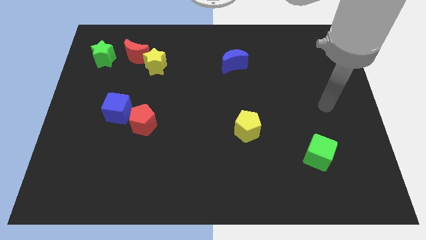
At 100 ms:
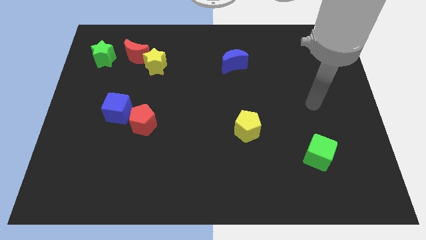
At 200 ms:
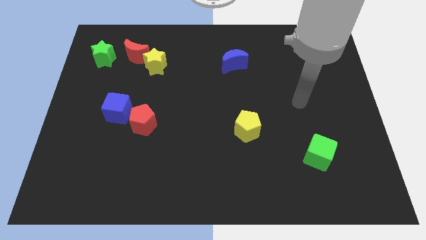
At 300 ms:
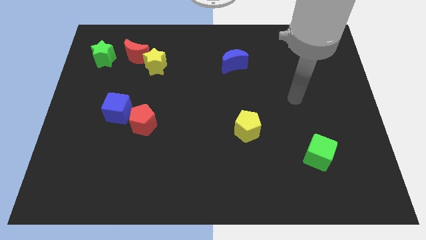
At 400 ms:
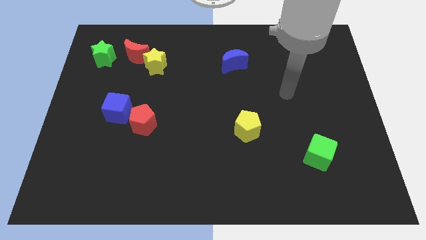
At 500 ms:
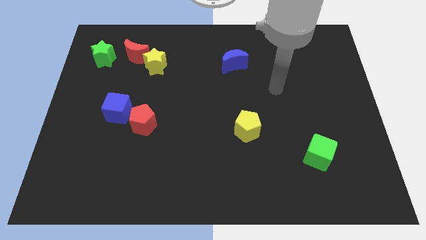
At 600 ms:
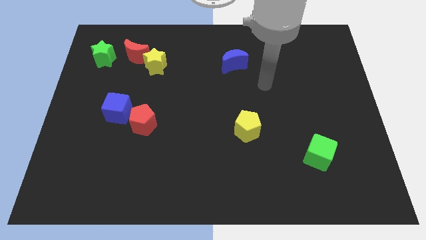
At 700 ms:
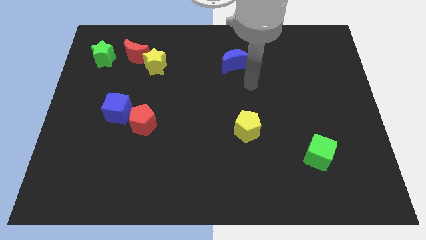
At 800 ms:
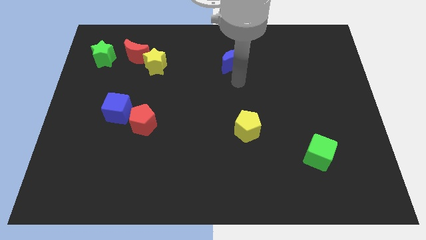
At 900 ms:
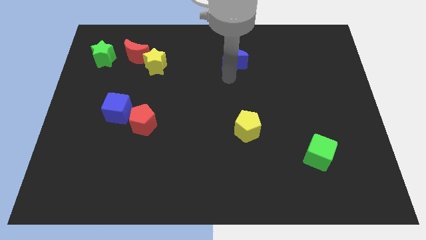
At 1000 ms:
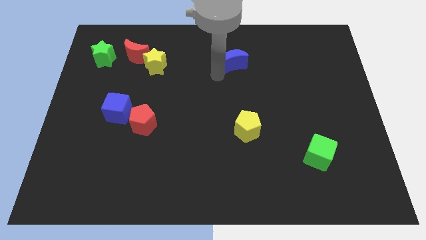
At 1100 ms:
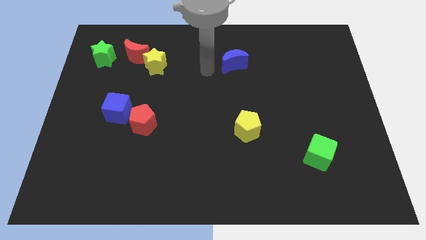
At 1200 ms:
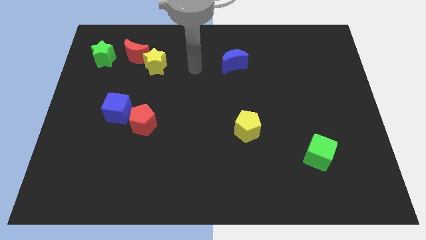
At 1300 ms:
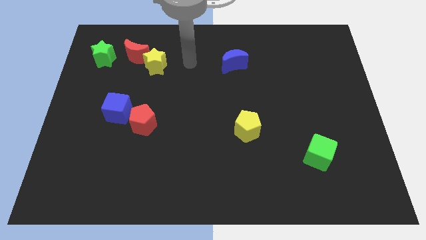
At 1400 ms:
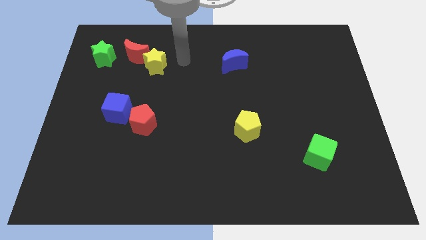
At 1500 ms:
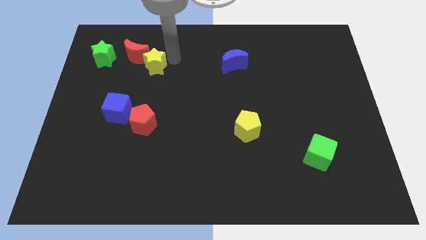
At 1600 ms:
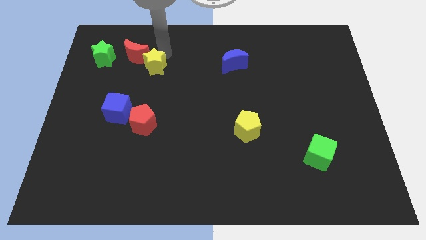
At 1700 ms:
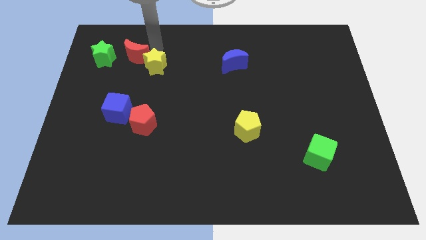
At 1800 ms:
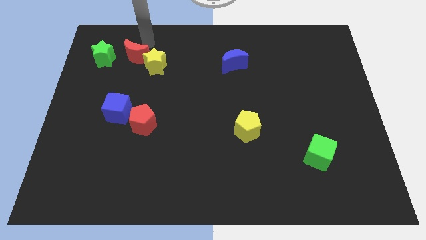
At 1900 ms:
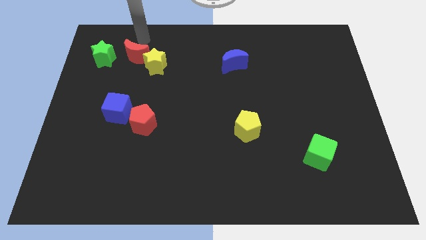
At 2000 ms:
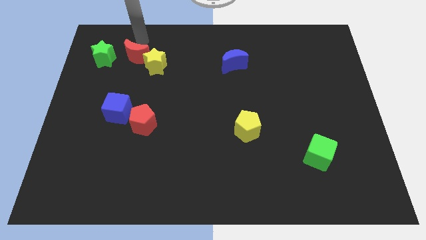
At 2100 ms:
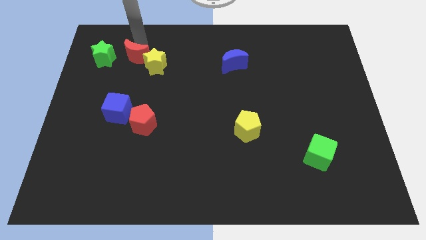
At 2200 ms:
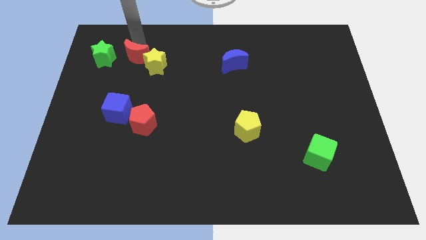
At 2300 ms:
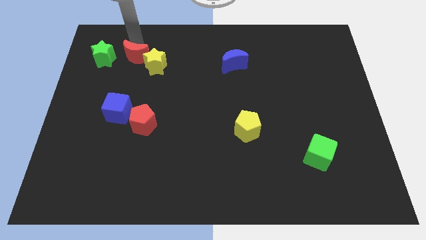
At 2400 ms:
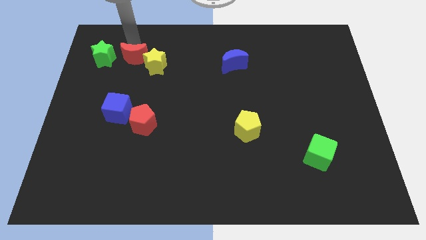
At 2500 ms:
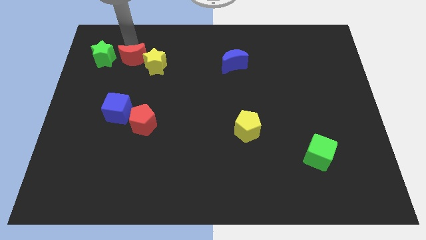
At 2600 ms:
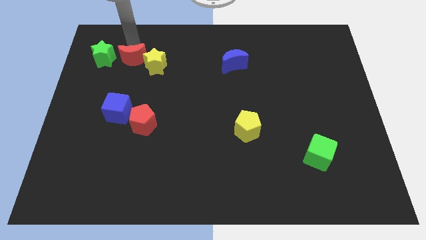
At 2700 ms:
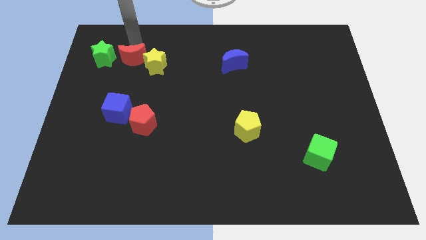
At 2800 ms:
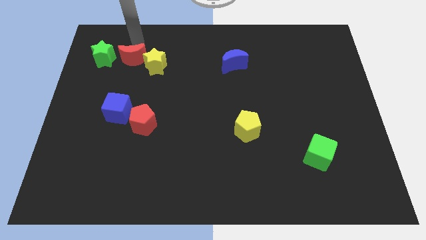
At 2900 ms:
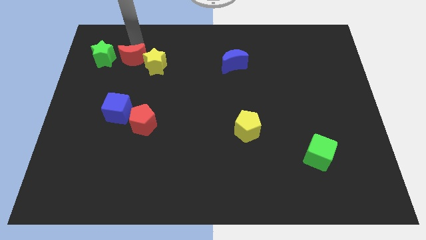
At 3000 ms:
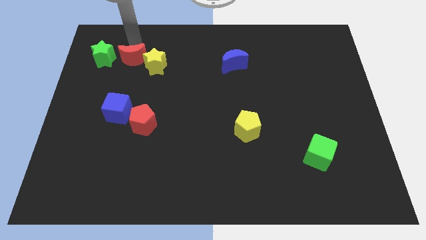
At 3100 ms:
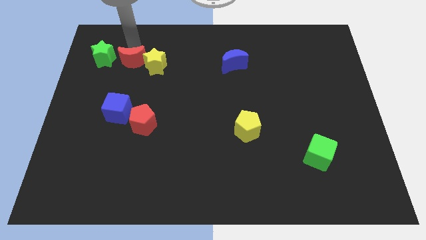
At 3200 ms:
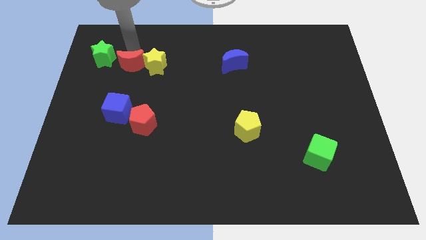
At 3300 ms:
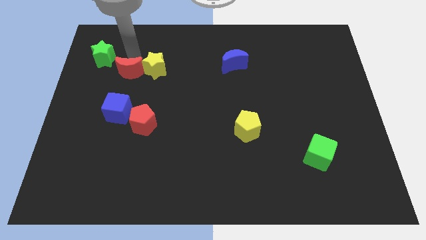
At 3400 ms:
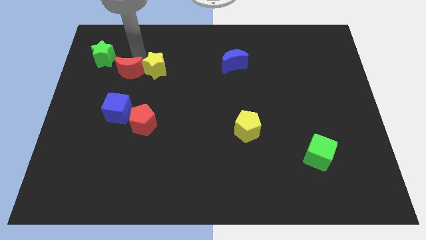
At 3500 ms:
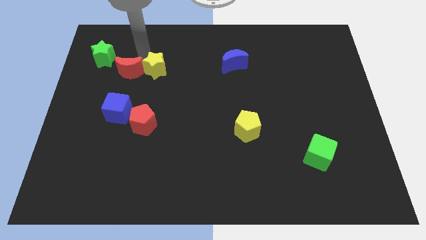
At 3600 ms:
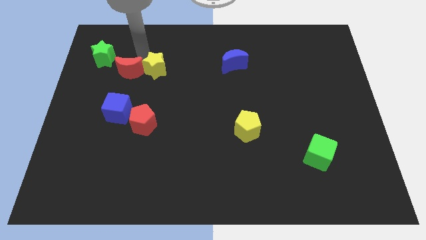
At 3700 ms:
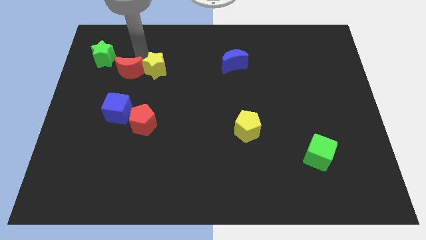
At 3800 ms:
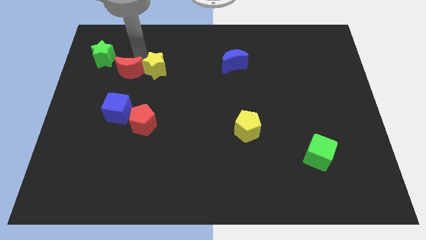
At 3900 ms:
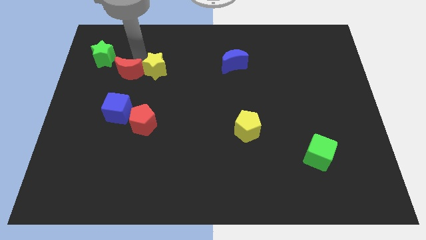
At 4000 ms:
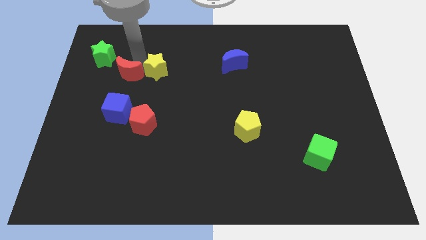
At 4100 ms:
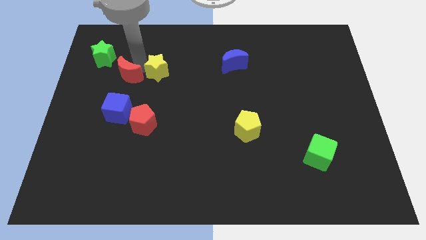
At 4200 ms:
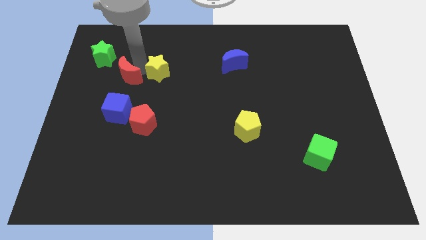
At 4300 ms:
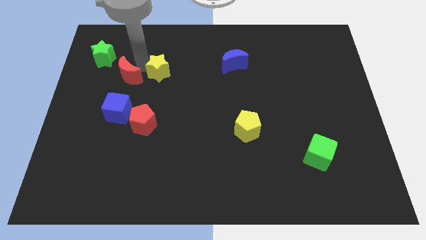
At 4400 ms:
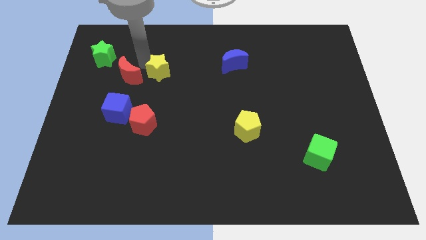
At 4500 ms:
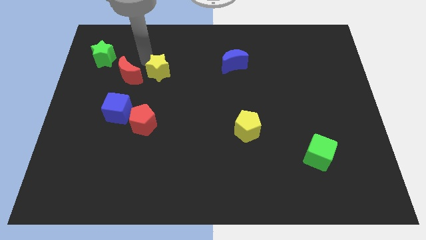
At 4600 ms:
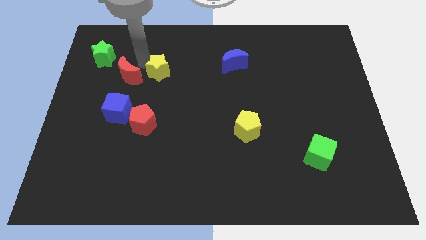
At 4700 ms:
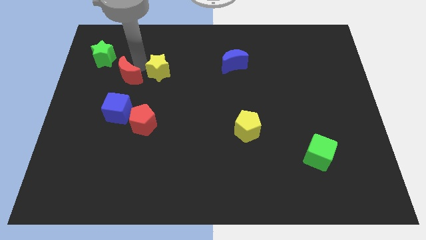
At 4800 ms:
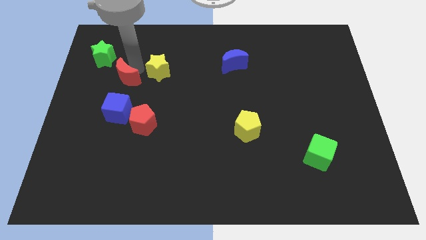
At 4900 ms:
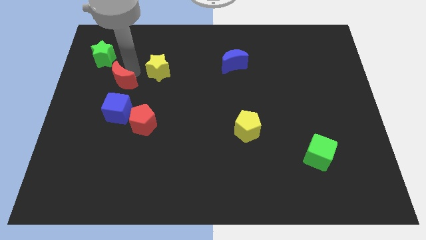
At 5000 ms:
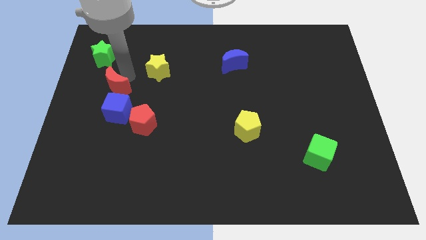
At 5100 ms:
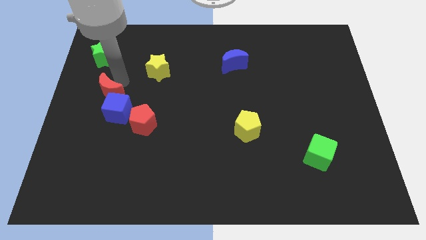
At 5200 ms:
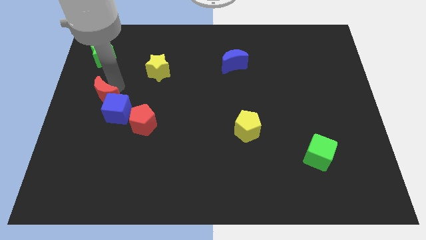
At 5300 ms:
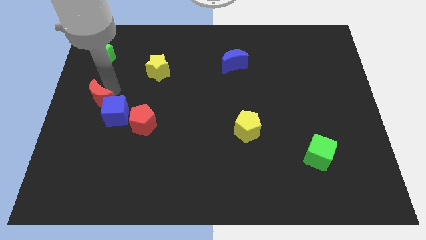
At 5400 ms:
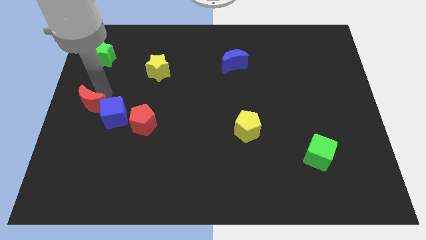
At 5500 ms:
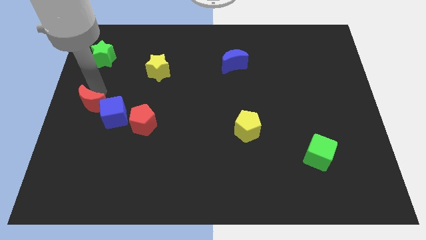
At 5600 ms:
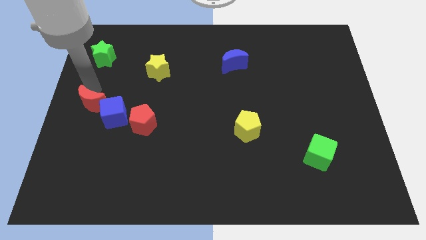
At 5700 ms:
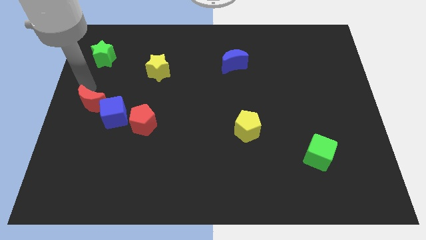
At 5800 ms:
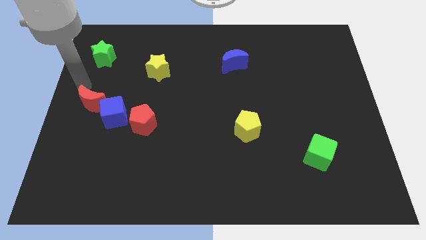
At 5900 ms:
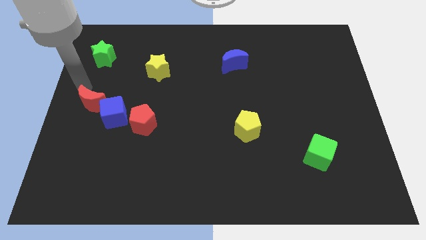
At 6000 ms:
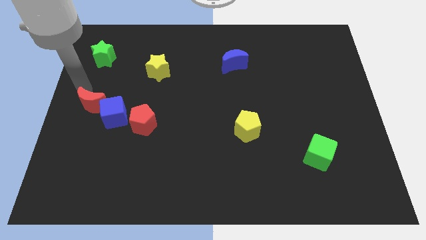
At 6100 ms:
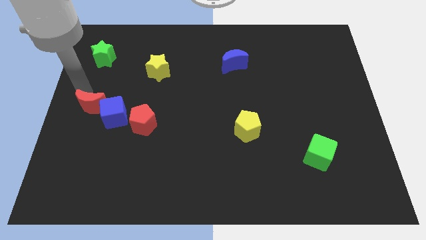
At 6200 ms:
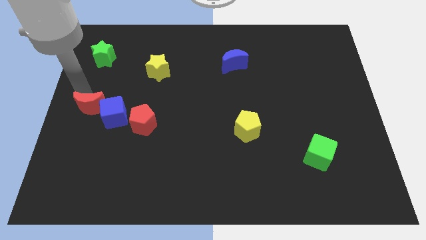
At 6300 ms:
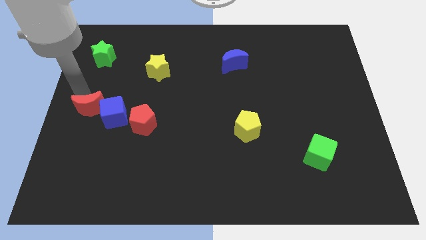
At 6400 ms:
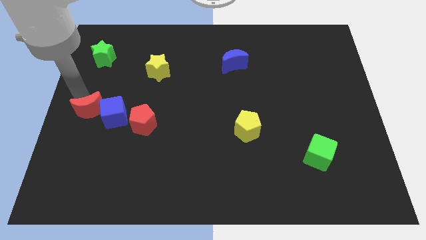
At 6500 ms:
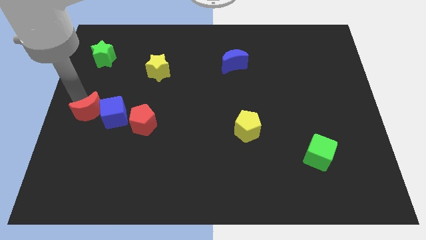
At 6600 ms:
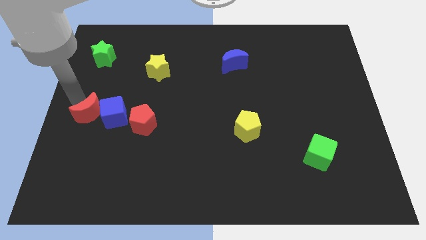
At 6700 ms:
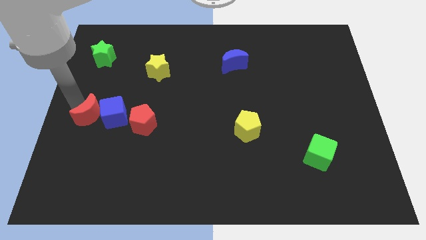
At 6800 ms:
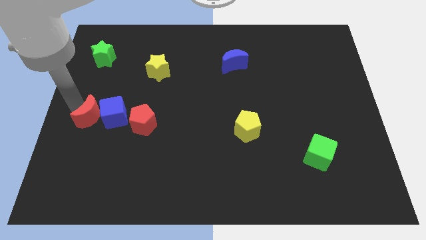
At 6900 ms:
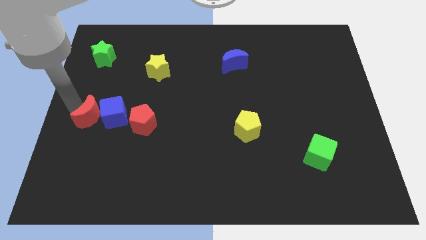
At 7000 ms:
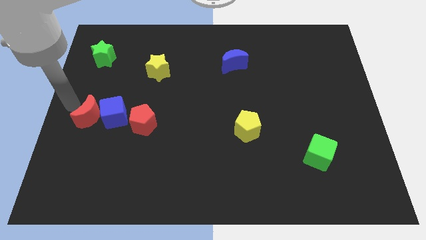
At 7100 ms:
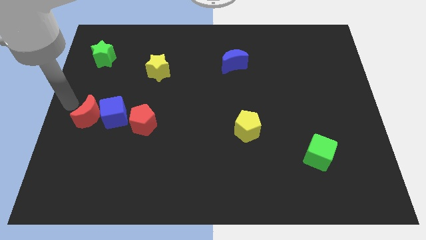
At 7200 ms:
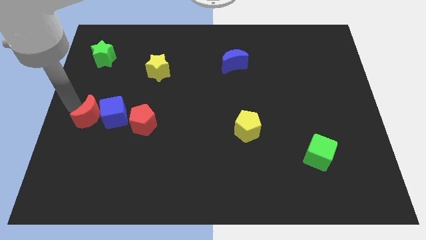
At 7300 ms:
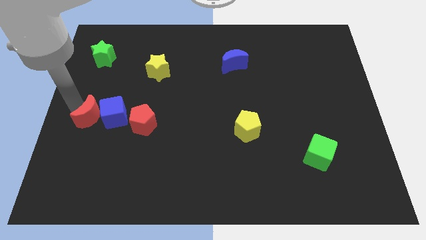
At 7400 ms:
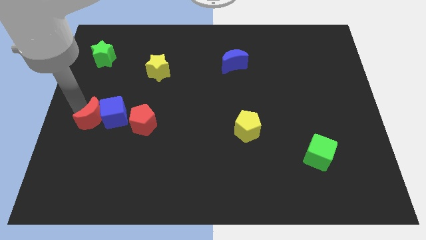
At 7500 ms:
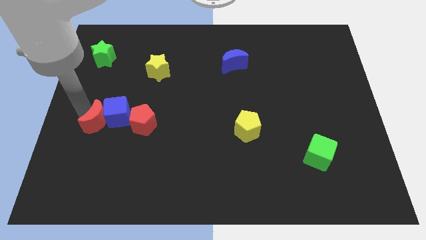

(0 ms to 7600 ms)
slide the red moon down

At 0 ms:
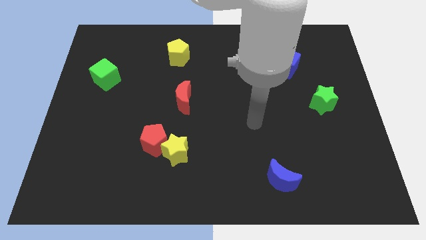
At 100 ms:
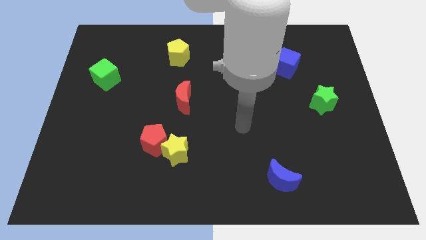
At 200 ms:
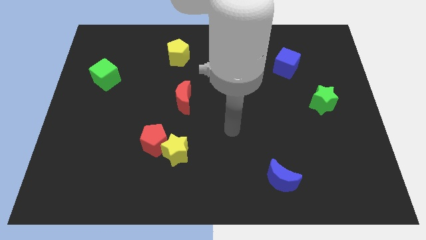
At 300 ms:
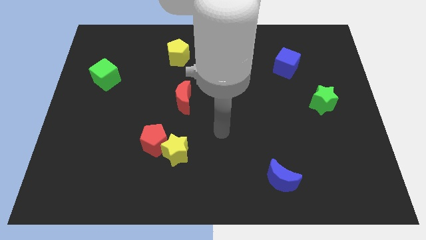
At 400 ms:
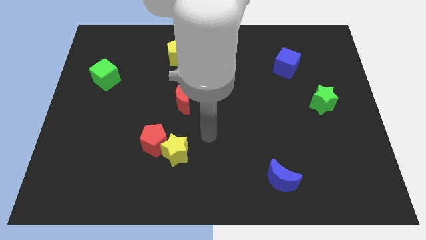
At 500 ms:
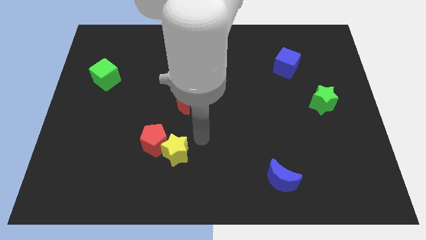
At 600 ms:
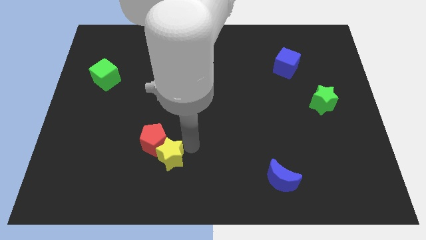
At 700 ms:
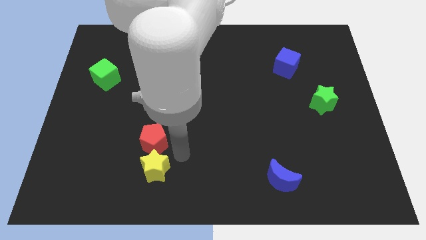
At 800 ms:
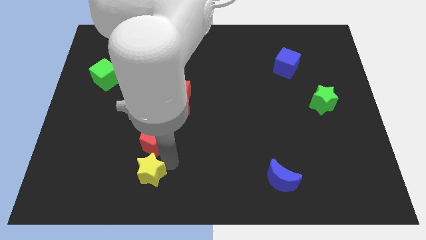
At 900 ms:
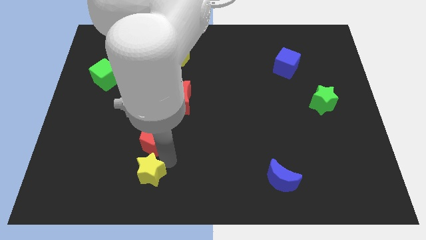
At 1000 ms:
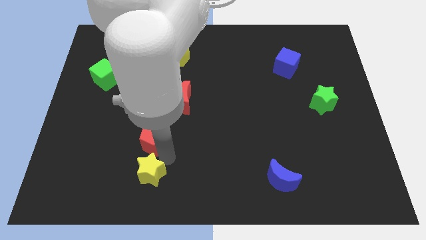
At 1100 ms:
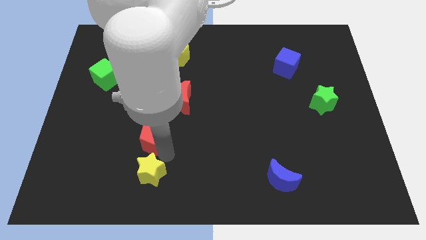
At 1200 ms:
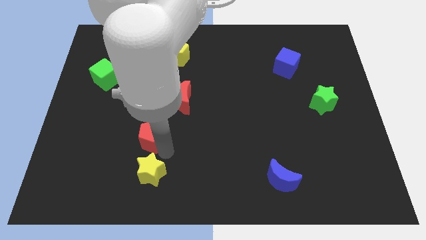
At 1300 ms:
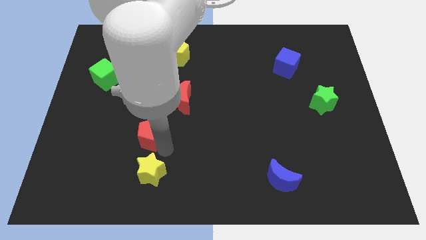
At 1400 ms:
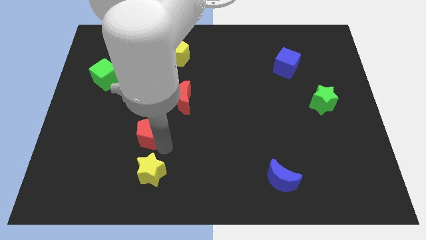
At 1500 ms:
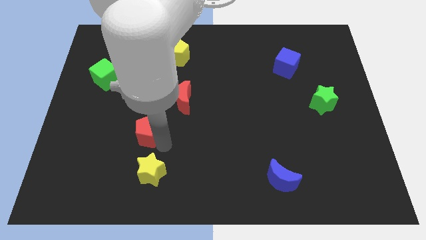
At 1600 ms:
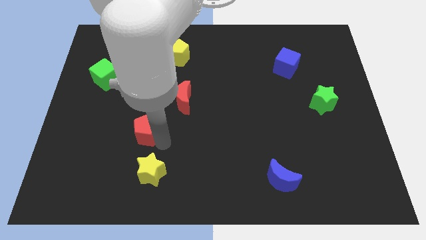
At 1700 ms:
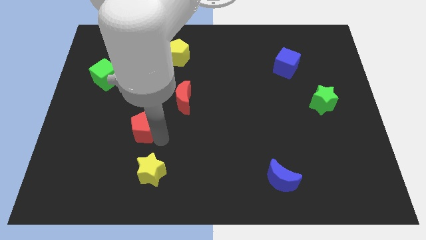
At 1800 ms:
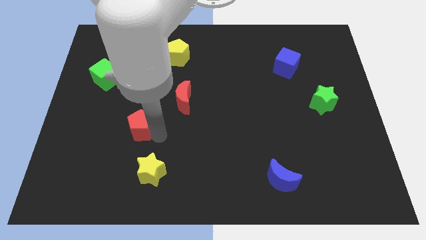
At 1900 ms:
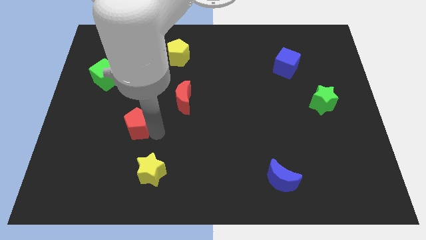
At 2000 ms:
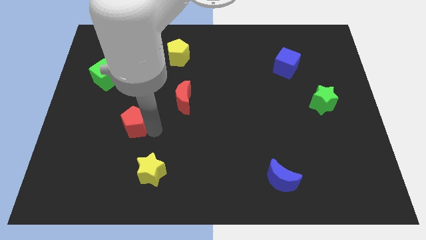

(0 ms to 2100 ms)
move the red pentagon up and to the left slightly
